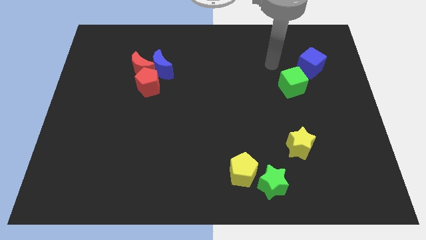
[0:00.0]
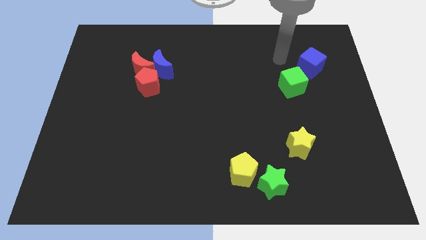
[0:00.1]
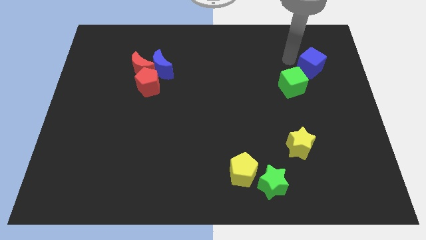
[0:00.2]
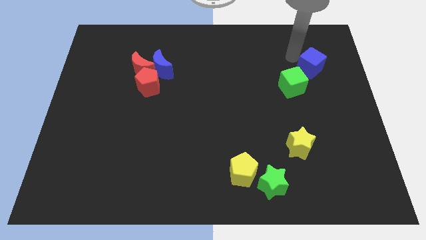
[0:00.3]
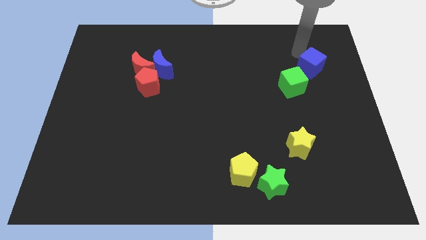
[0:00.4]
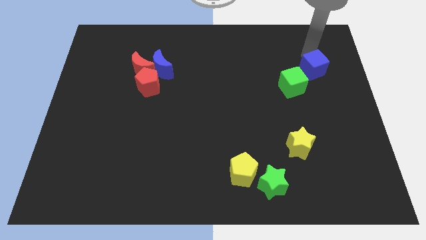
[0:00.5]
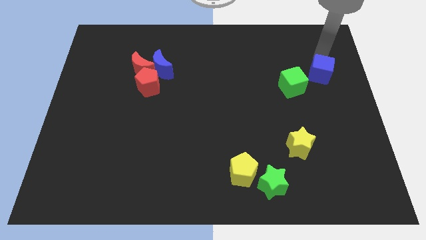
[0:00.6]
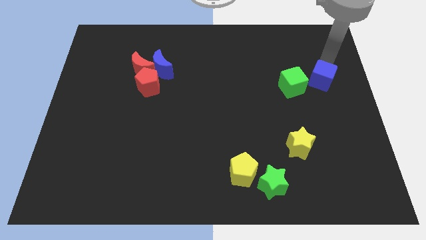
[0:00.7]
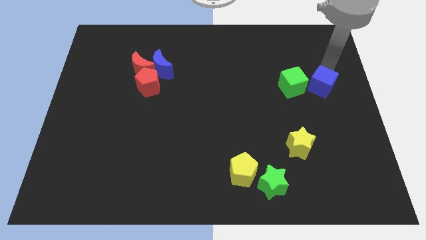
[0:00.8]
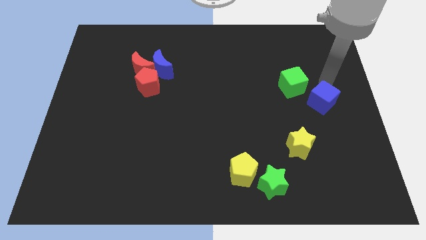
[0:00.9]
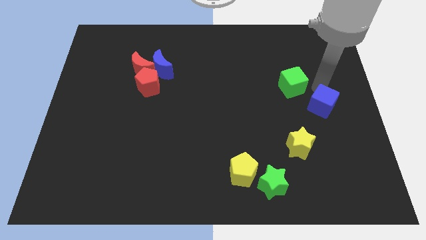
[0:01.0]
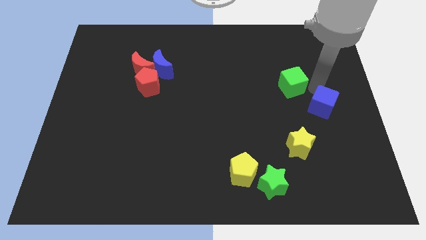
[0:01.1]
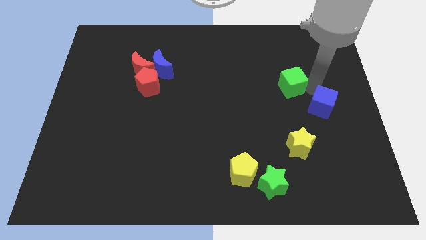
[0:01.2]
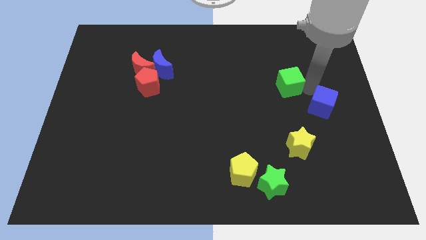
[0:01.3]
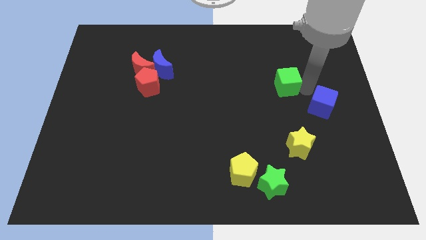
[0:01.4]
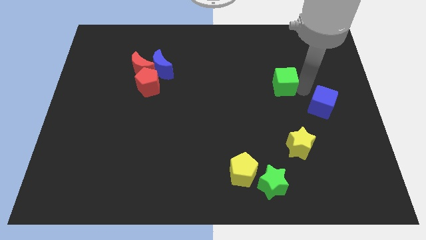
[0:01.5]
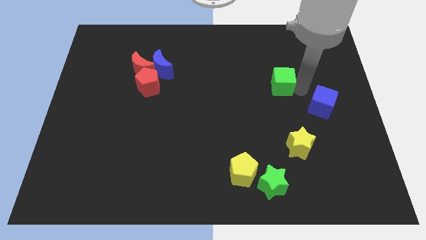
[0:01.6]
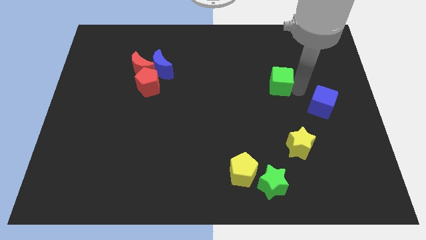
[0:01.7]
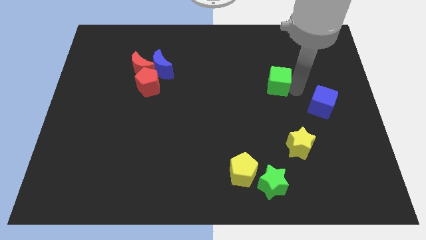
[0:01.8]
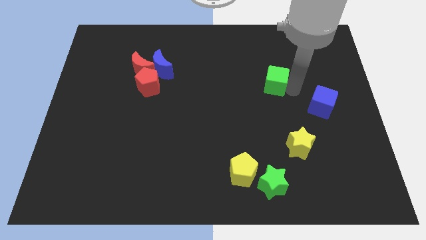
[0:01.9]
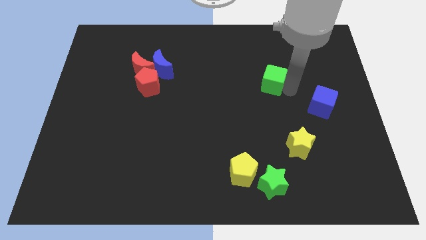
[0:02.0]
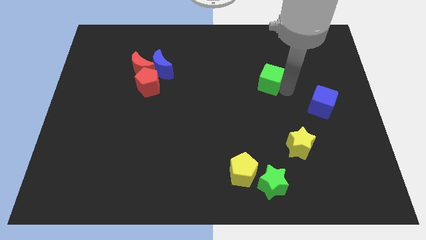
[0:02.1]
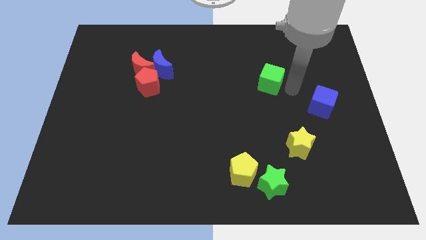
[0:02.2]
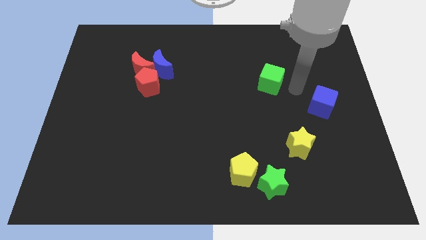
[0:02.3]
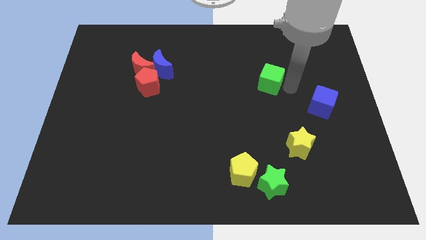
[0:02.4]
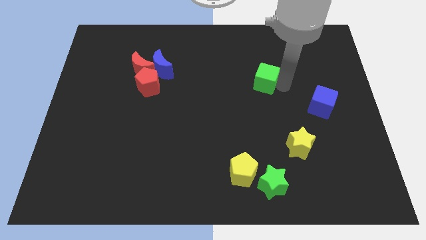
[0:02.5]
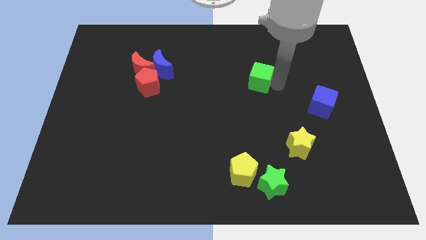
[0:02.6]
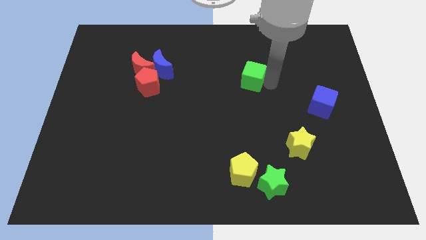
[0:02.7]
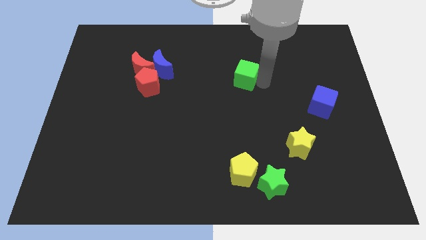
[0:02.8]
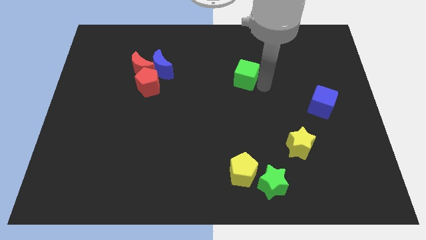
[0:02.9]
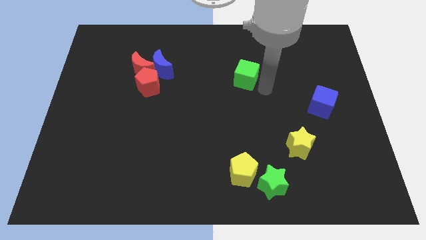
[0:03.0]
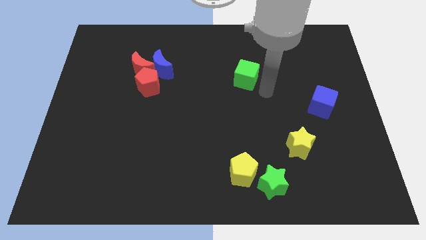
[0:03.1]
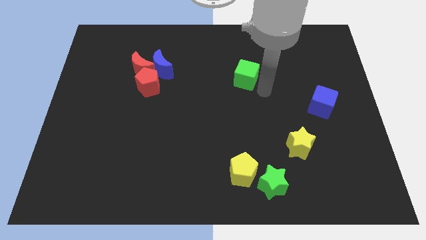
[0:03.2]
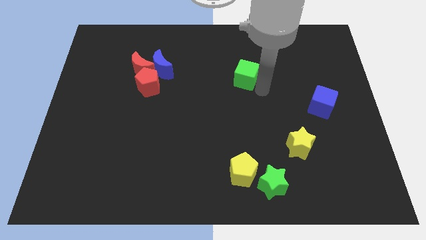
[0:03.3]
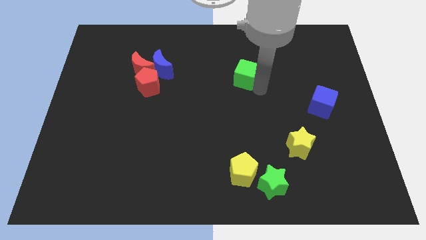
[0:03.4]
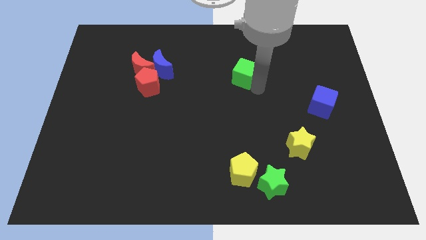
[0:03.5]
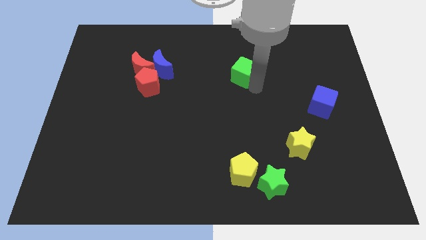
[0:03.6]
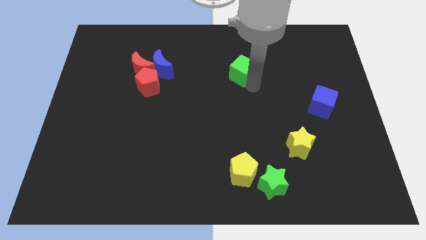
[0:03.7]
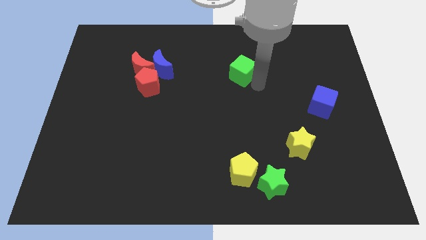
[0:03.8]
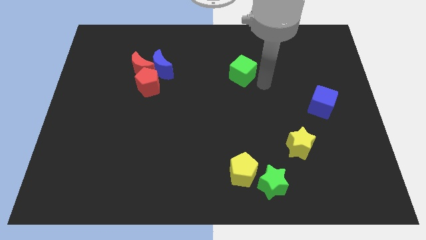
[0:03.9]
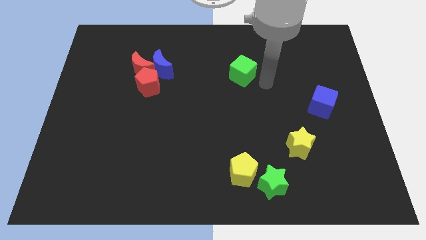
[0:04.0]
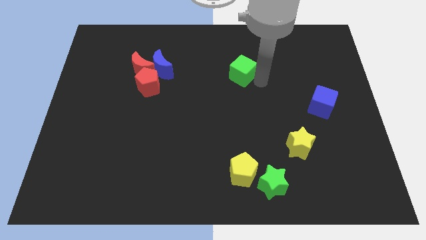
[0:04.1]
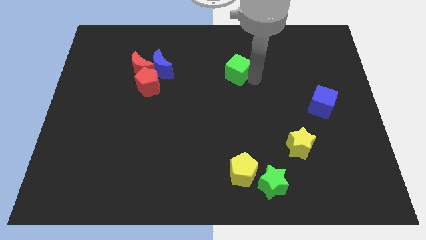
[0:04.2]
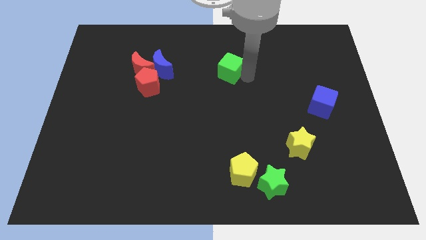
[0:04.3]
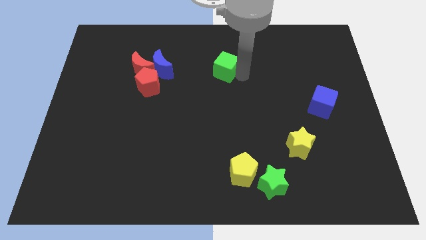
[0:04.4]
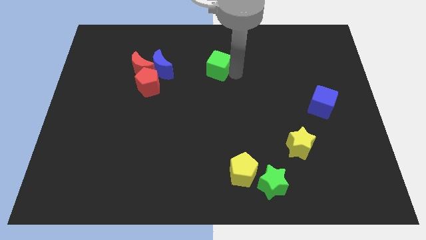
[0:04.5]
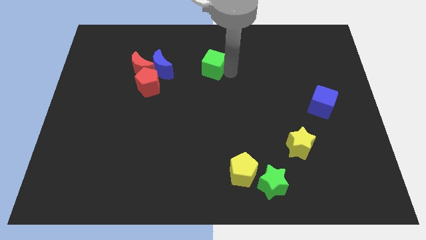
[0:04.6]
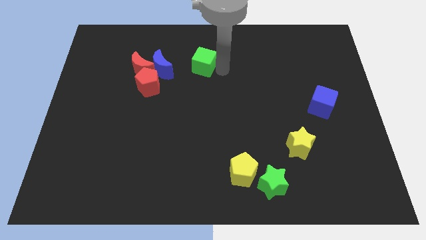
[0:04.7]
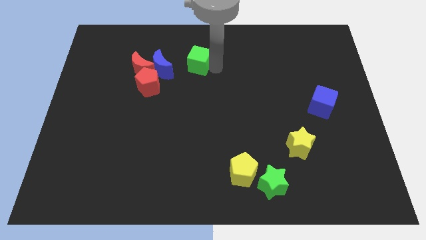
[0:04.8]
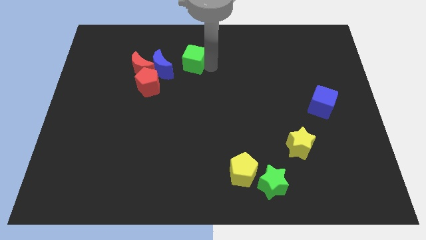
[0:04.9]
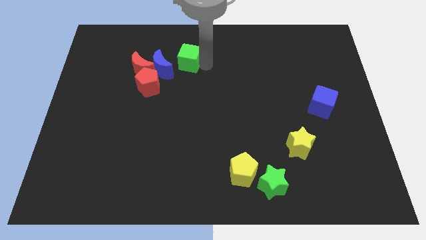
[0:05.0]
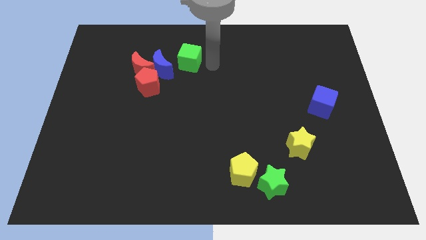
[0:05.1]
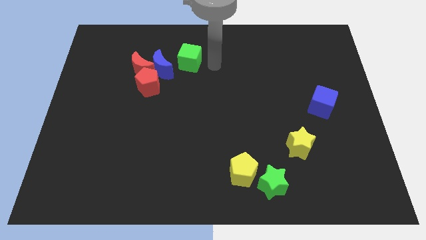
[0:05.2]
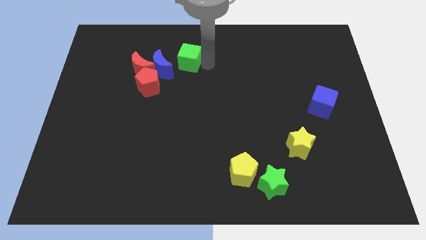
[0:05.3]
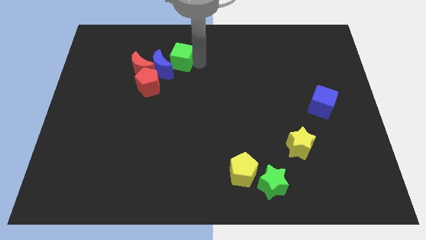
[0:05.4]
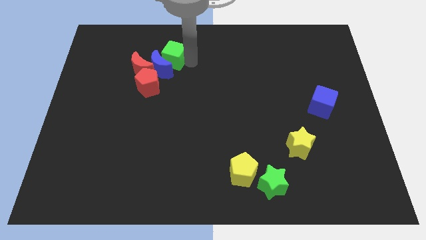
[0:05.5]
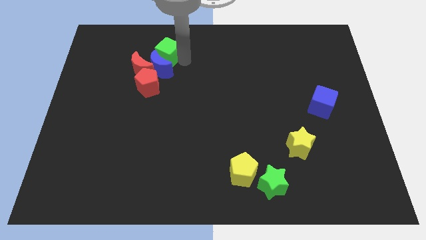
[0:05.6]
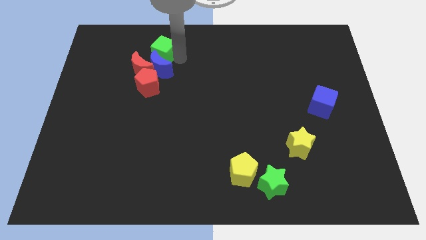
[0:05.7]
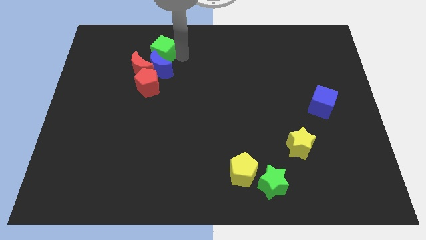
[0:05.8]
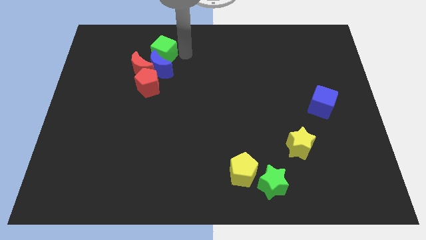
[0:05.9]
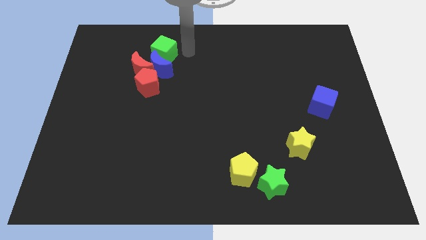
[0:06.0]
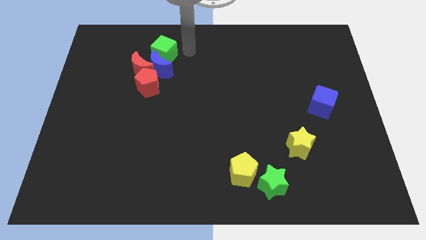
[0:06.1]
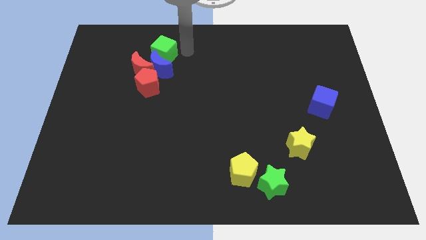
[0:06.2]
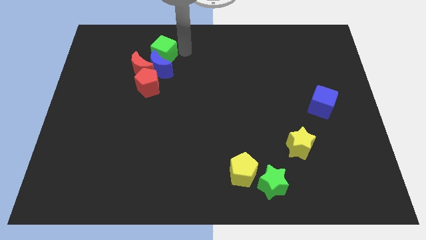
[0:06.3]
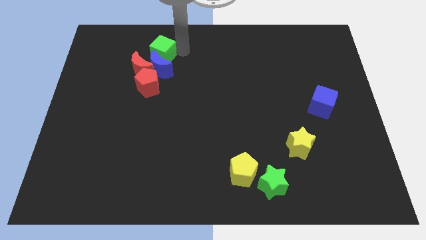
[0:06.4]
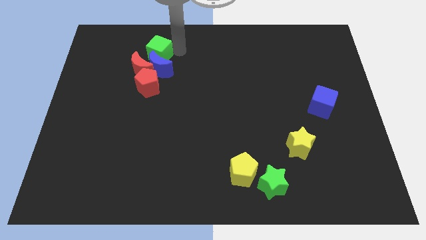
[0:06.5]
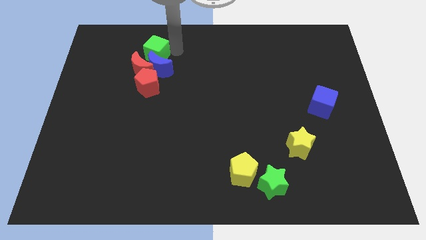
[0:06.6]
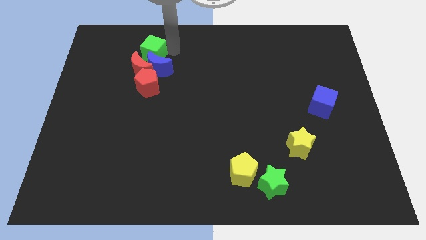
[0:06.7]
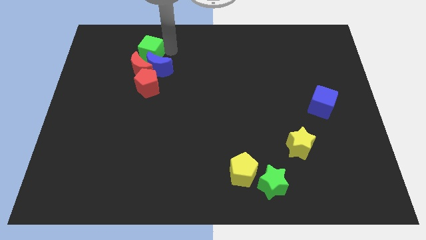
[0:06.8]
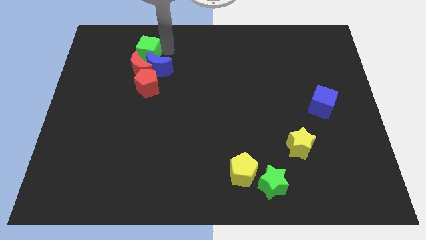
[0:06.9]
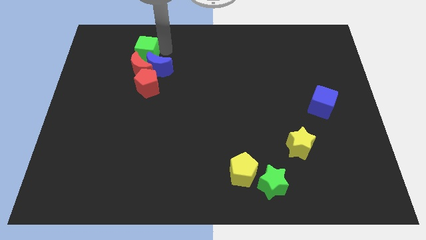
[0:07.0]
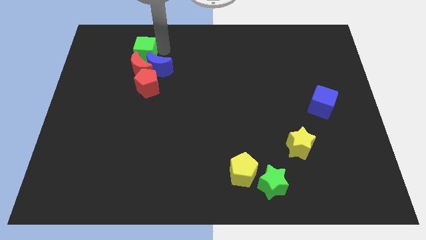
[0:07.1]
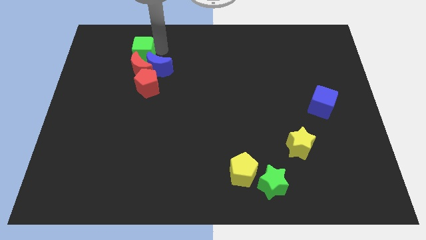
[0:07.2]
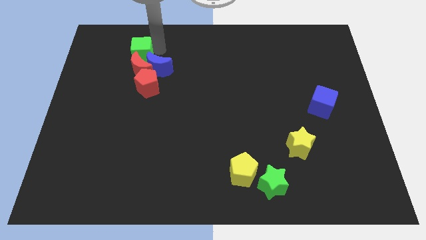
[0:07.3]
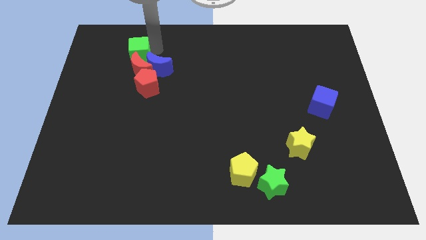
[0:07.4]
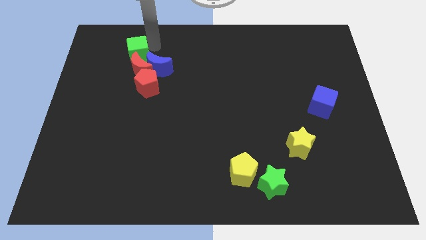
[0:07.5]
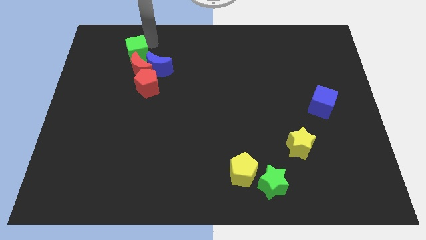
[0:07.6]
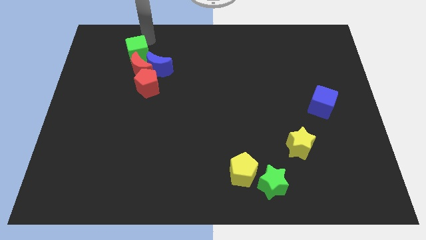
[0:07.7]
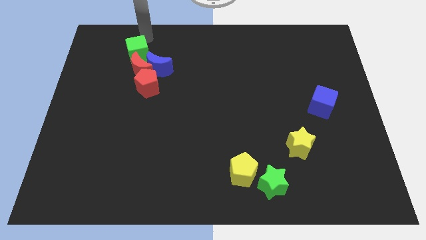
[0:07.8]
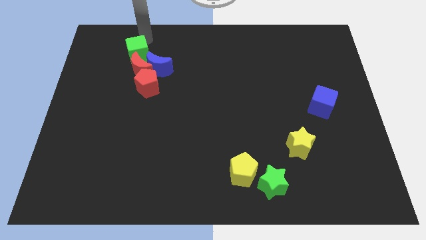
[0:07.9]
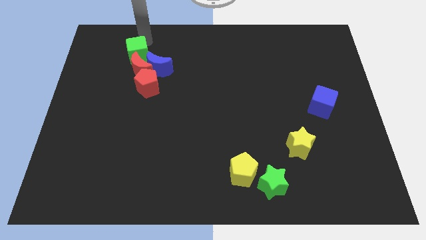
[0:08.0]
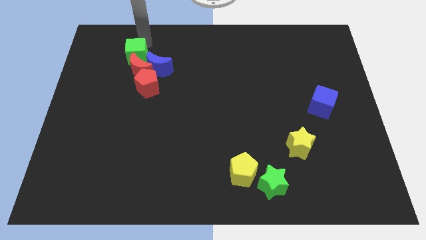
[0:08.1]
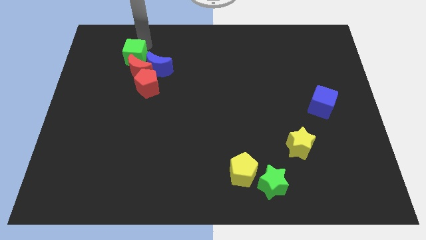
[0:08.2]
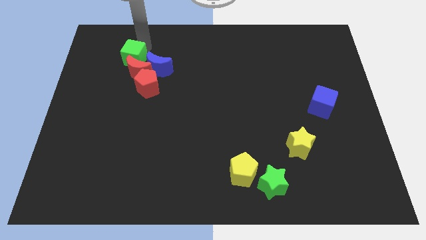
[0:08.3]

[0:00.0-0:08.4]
move the green cube to the top left of the red pentagon
